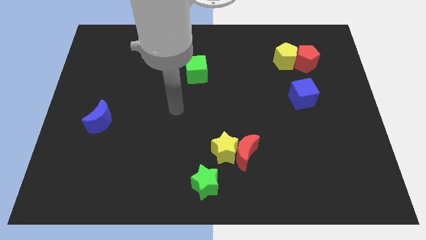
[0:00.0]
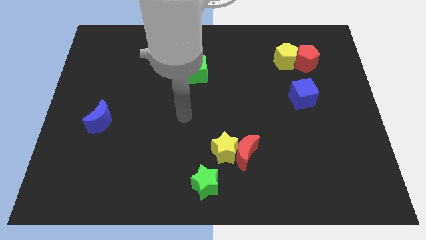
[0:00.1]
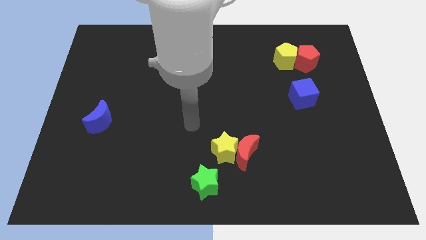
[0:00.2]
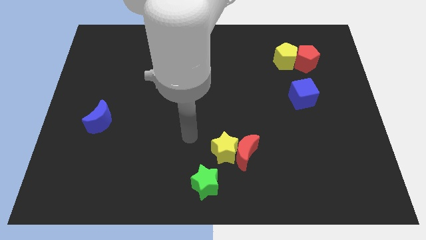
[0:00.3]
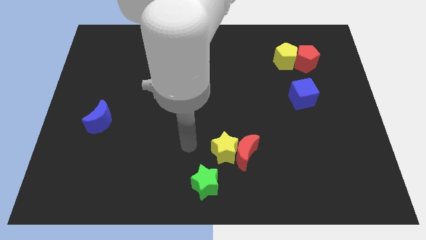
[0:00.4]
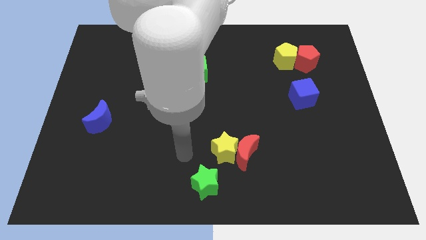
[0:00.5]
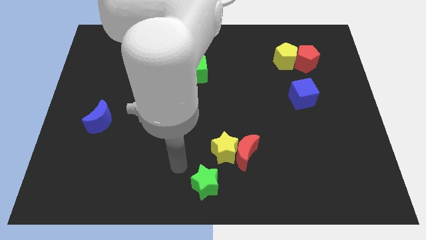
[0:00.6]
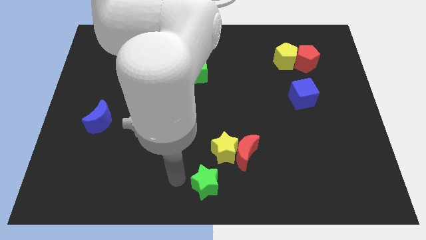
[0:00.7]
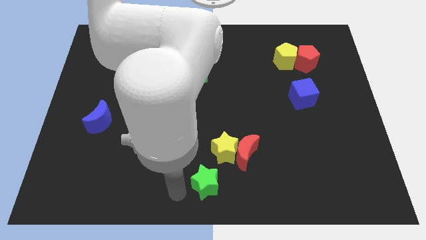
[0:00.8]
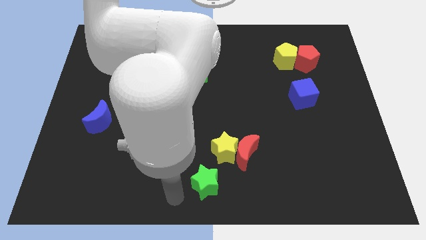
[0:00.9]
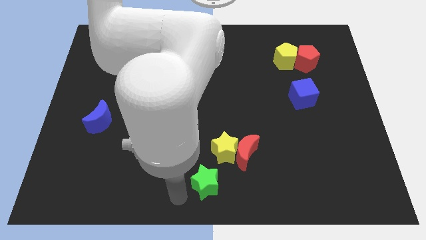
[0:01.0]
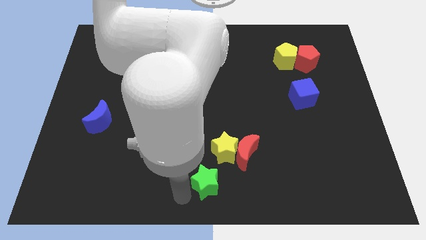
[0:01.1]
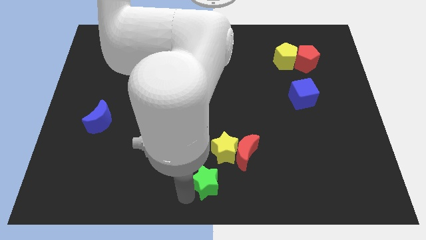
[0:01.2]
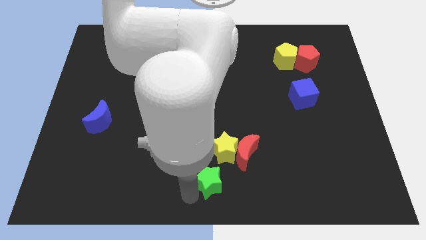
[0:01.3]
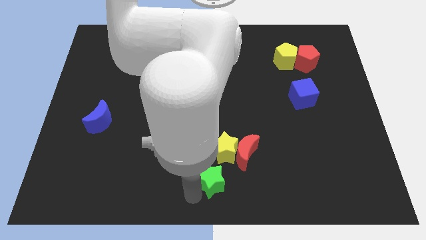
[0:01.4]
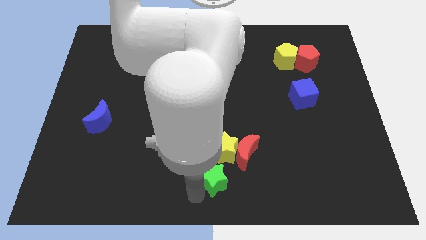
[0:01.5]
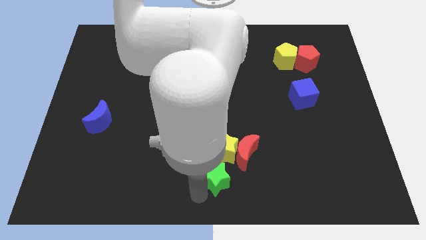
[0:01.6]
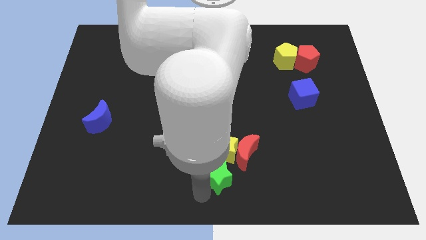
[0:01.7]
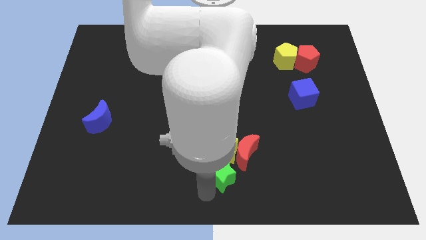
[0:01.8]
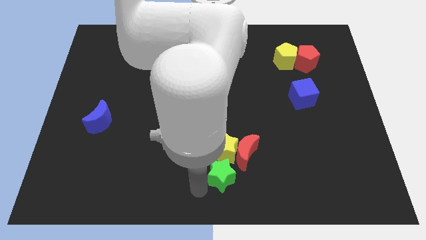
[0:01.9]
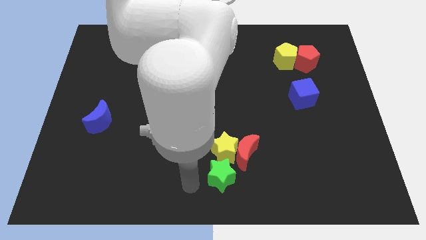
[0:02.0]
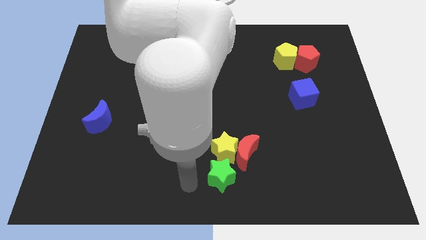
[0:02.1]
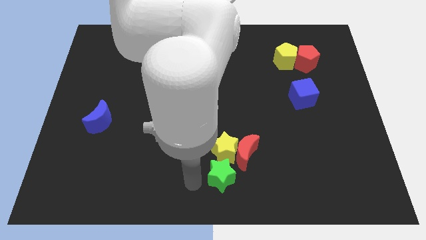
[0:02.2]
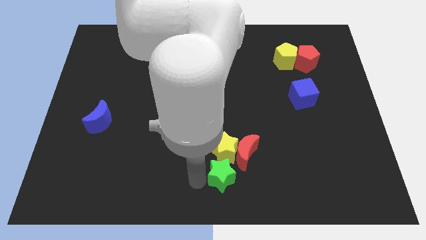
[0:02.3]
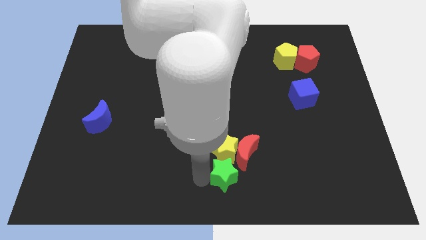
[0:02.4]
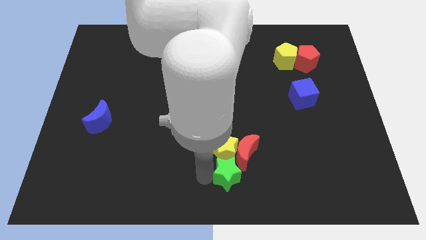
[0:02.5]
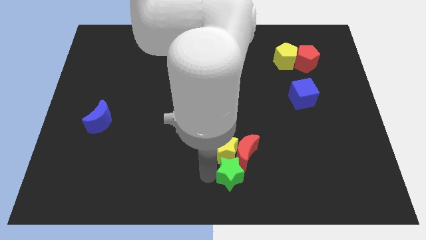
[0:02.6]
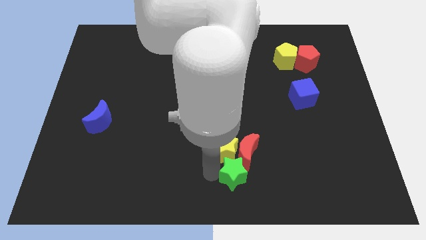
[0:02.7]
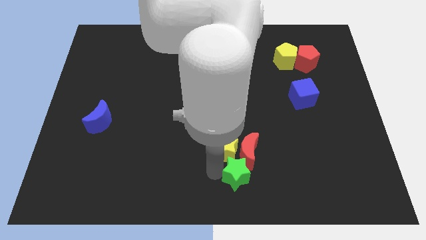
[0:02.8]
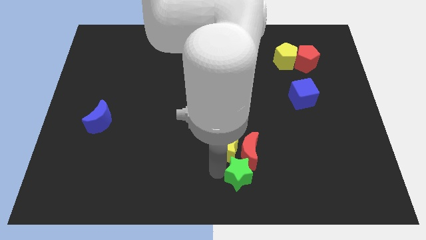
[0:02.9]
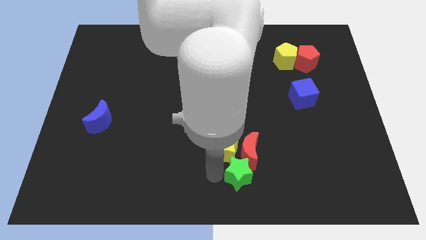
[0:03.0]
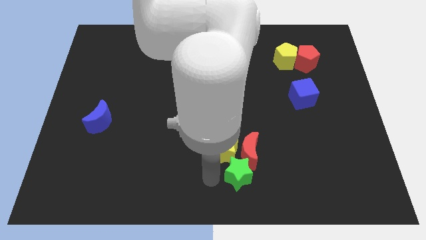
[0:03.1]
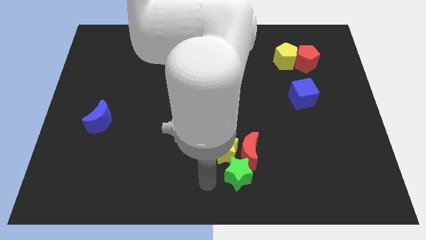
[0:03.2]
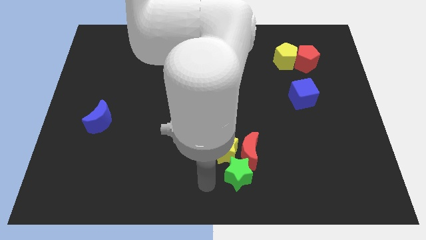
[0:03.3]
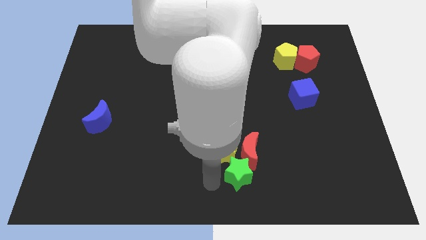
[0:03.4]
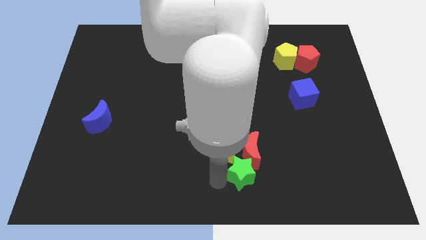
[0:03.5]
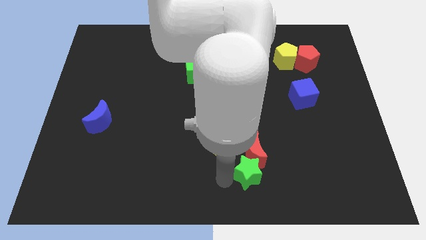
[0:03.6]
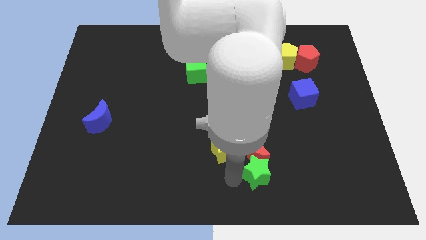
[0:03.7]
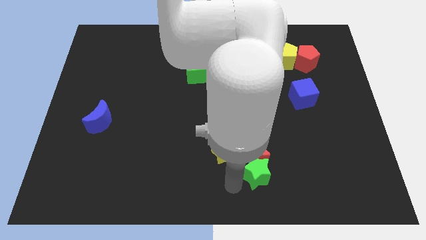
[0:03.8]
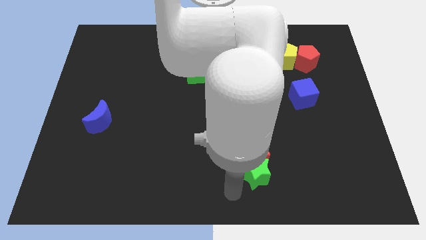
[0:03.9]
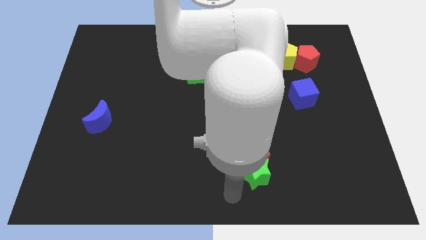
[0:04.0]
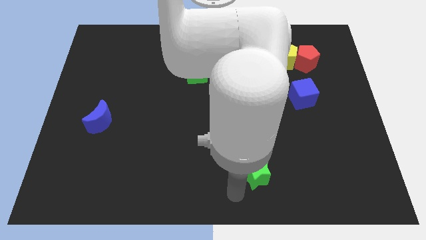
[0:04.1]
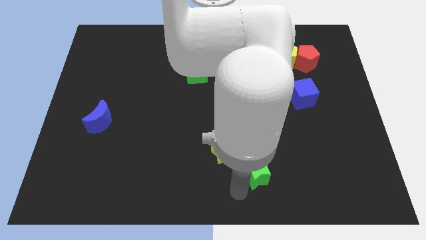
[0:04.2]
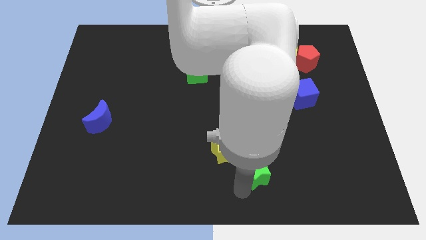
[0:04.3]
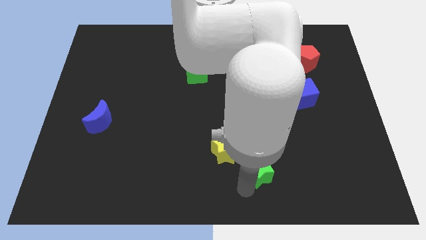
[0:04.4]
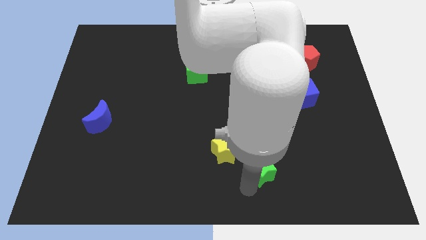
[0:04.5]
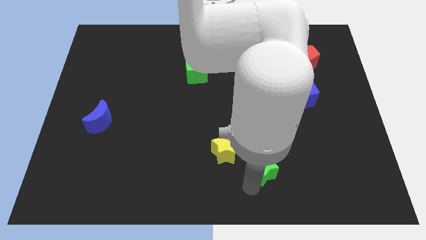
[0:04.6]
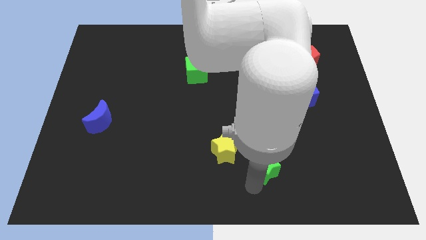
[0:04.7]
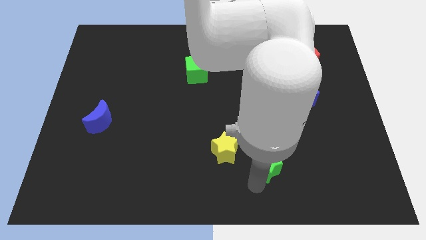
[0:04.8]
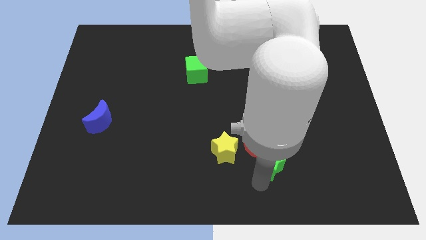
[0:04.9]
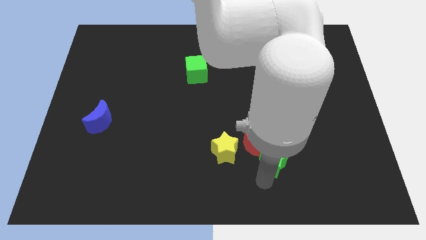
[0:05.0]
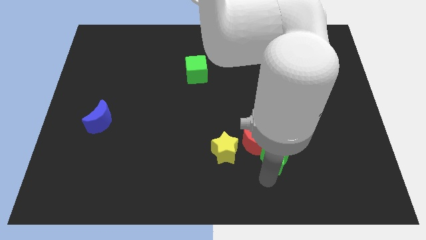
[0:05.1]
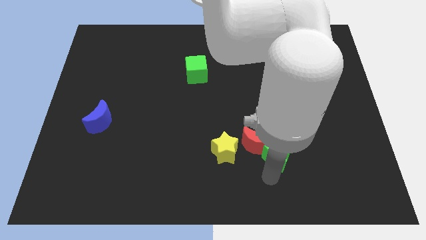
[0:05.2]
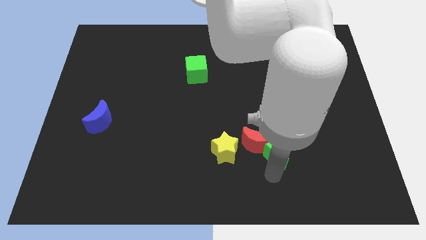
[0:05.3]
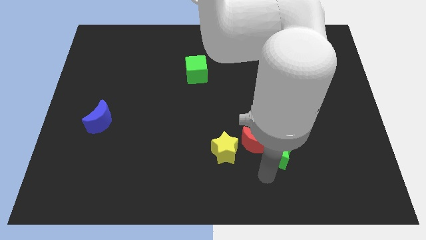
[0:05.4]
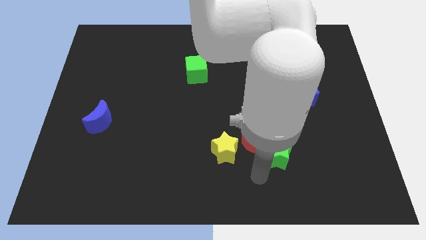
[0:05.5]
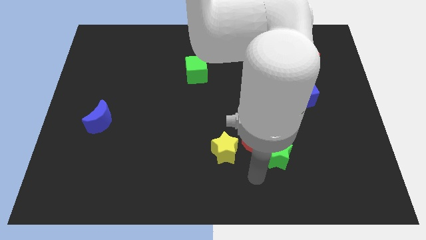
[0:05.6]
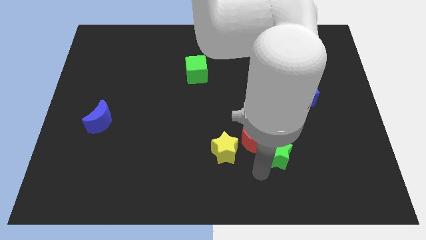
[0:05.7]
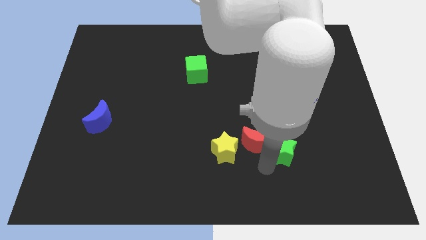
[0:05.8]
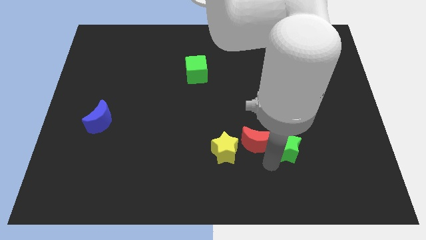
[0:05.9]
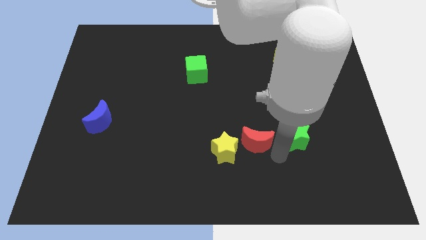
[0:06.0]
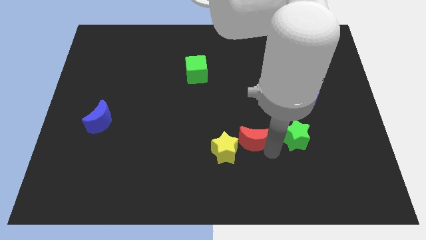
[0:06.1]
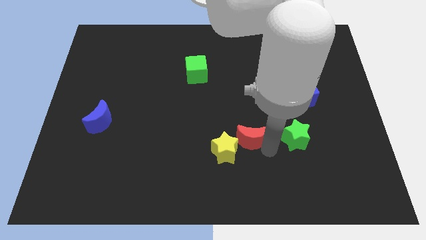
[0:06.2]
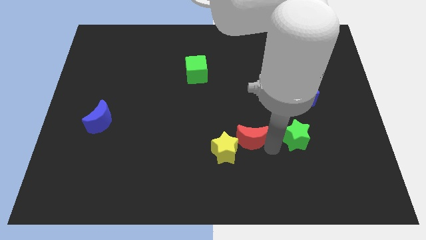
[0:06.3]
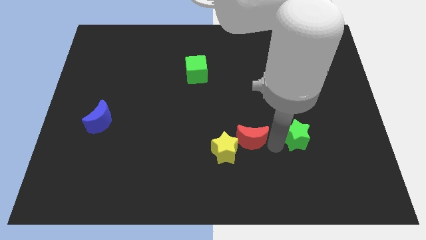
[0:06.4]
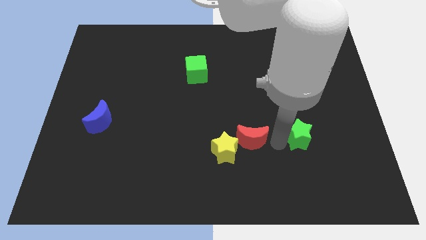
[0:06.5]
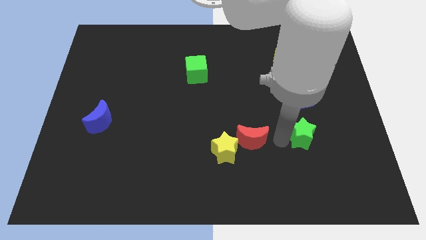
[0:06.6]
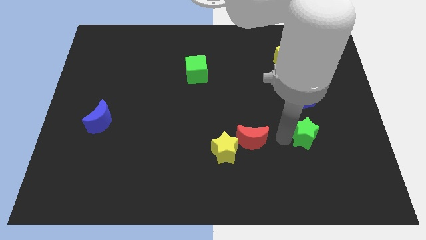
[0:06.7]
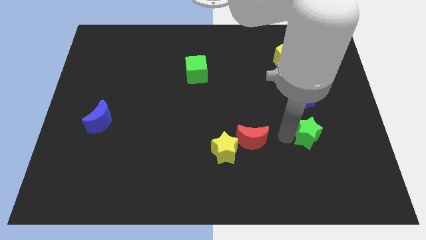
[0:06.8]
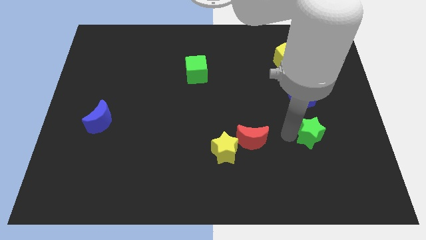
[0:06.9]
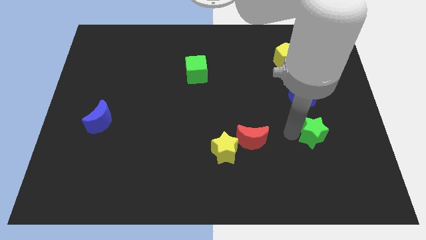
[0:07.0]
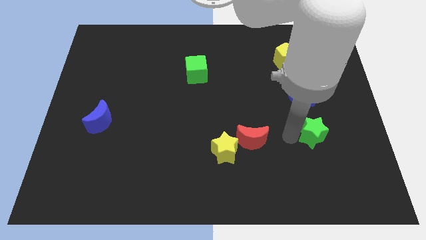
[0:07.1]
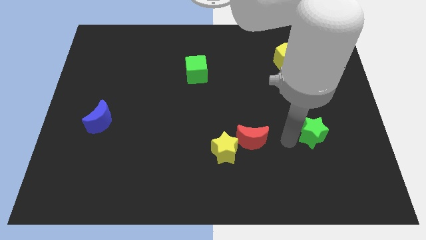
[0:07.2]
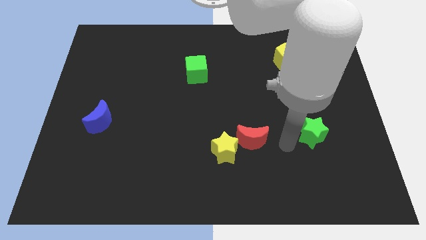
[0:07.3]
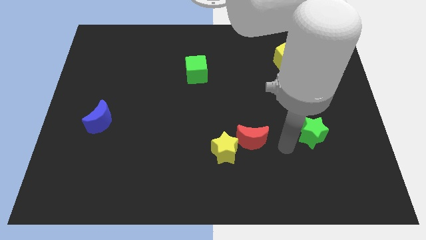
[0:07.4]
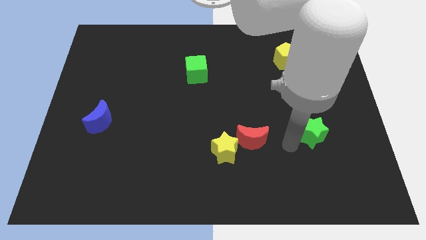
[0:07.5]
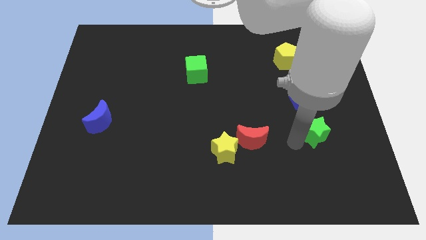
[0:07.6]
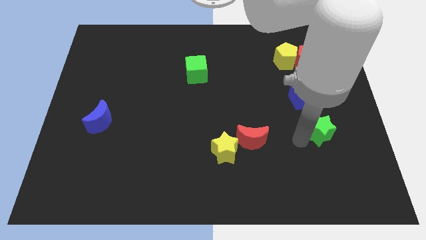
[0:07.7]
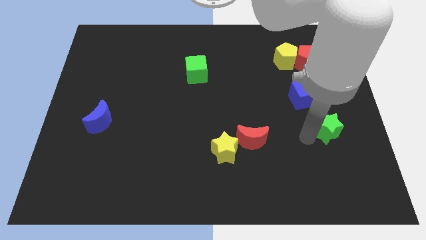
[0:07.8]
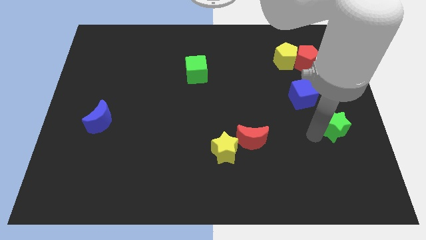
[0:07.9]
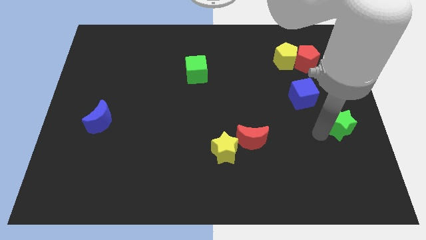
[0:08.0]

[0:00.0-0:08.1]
put the green star to the right side of the board
